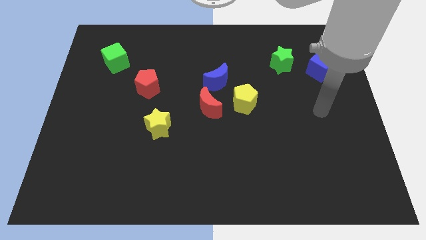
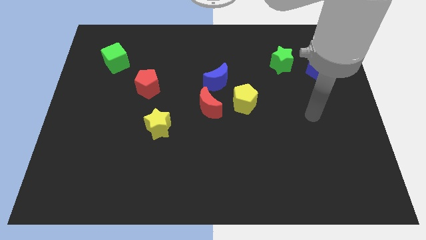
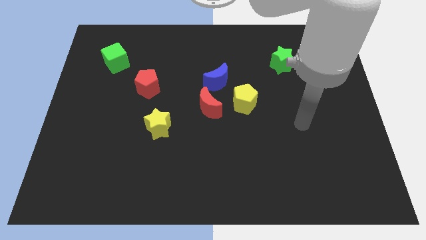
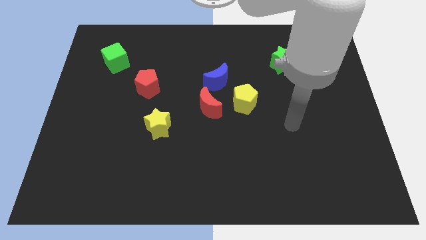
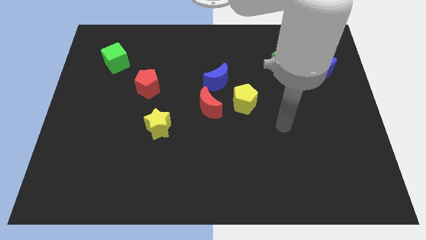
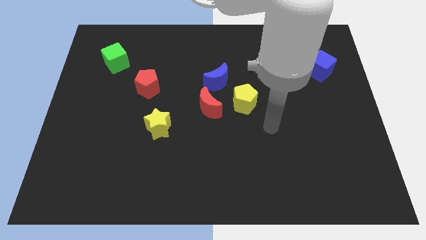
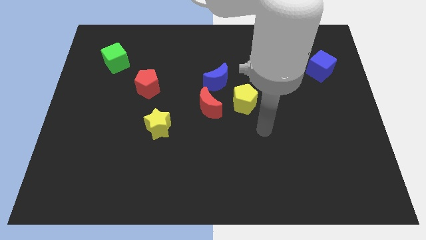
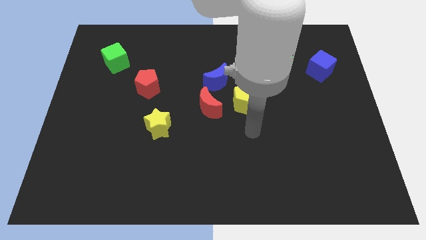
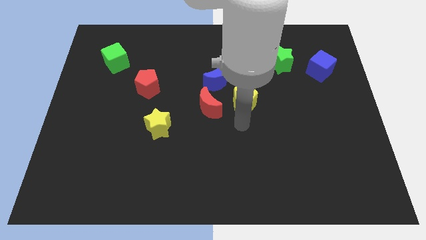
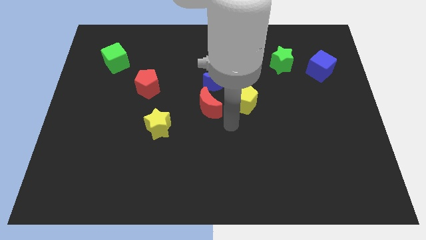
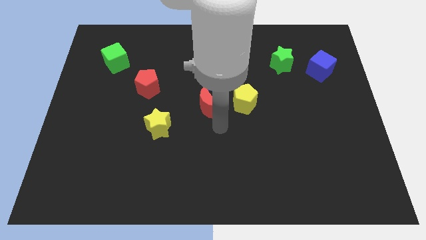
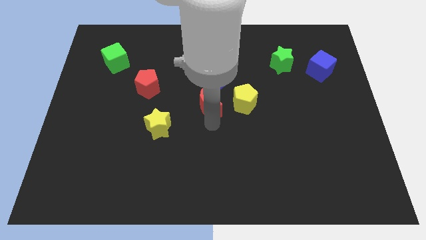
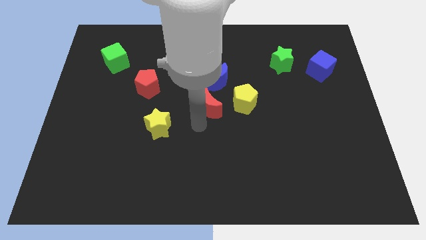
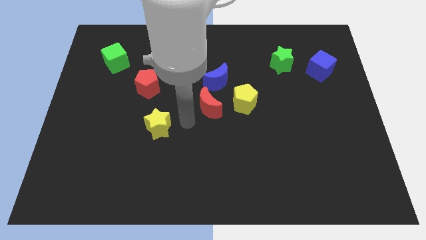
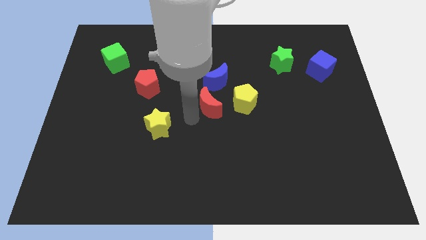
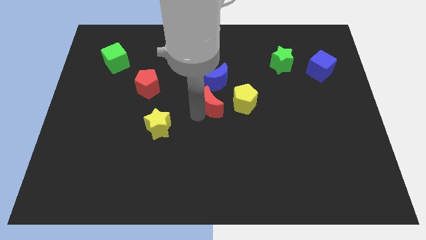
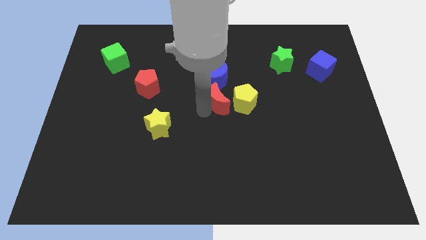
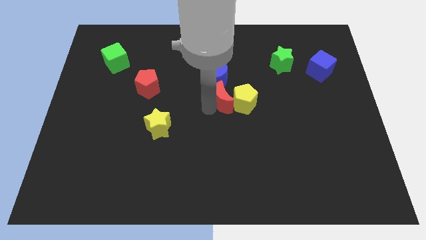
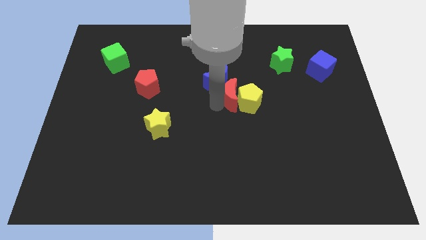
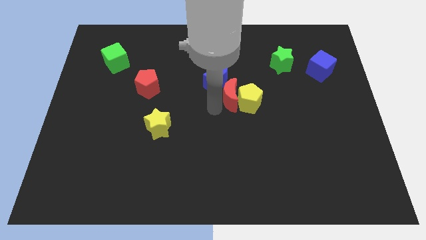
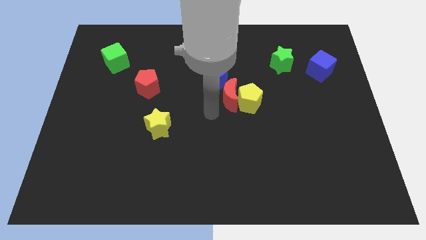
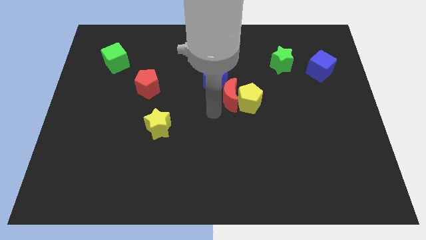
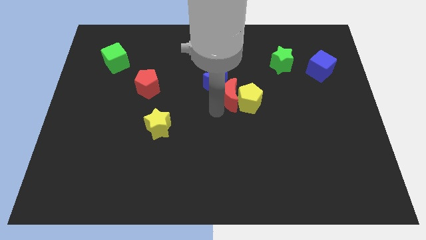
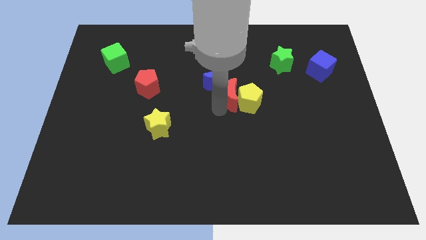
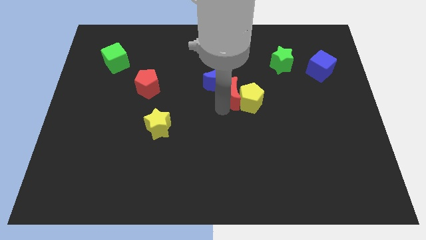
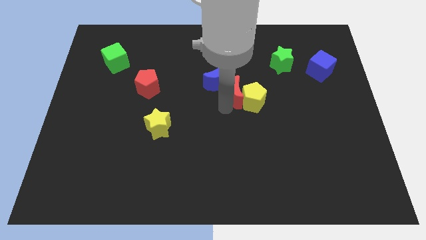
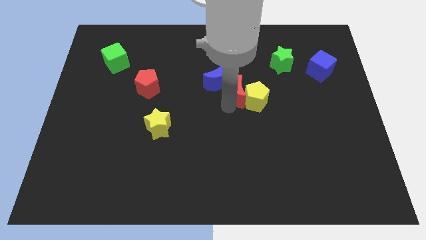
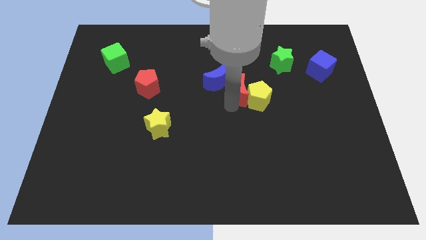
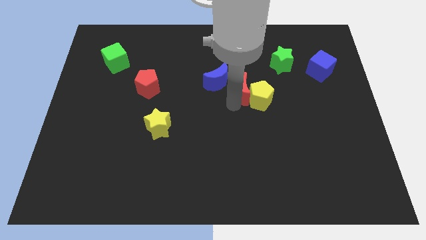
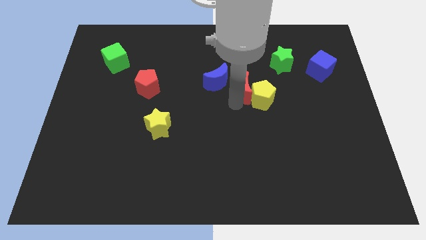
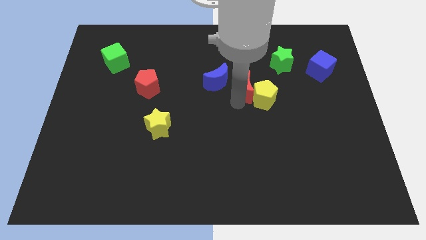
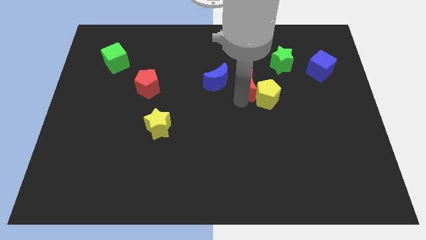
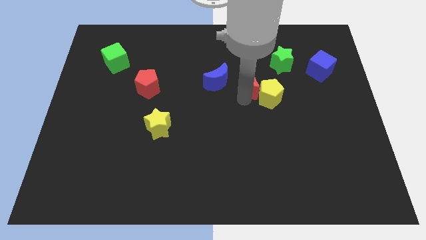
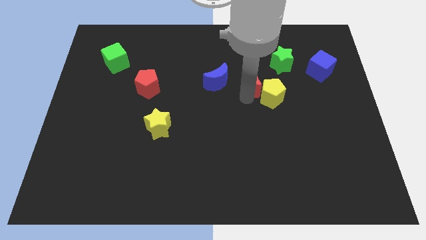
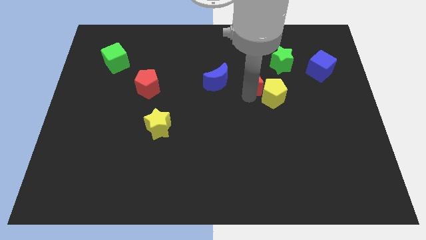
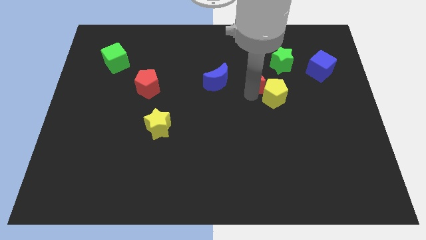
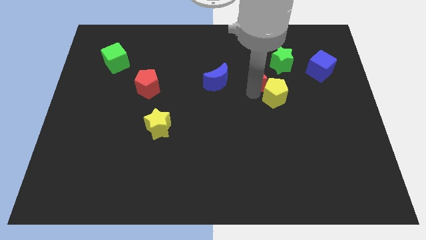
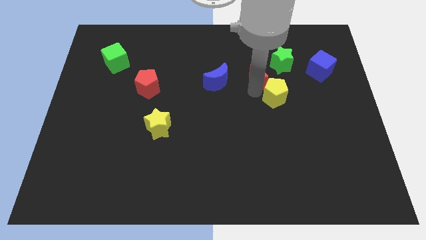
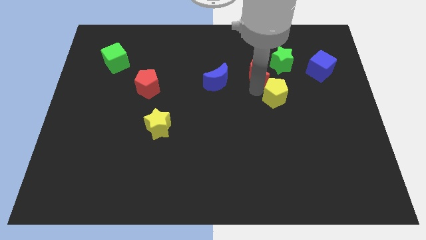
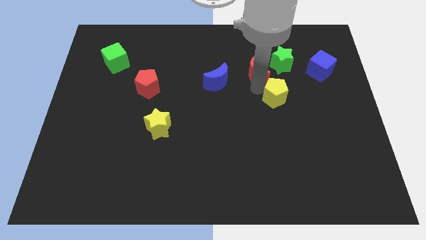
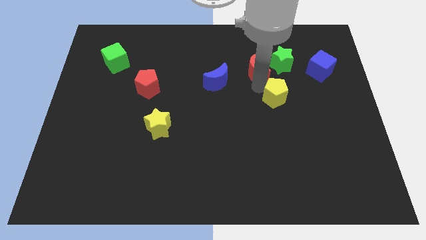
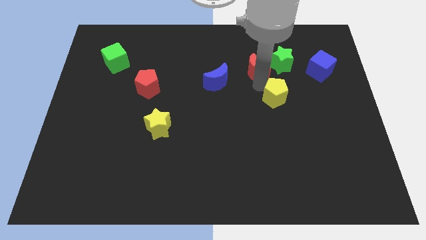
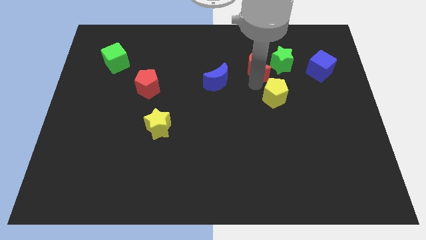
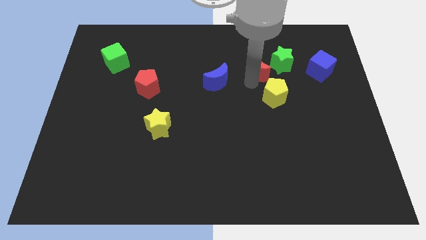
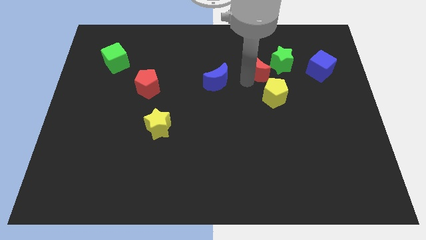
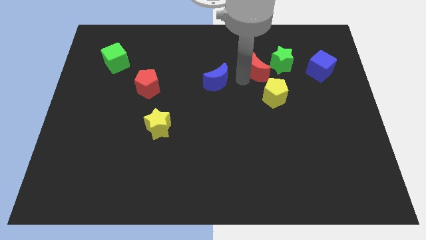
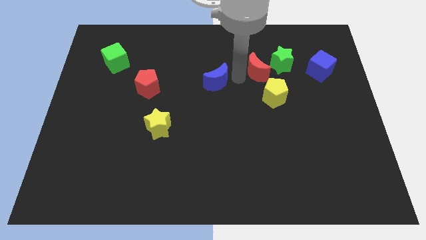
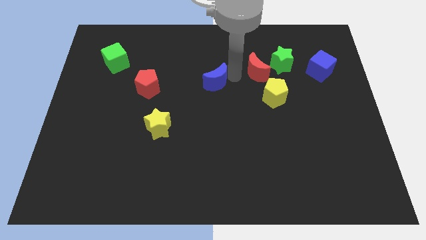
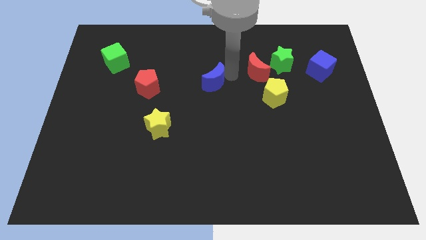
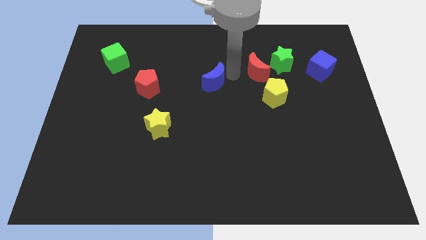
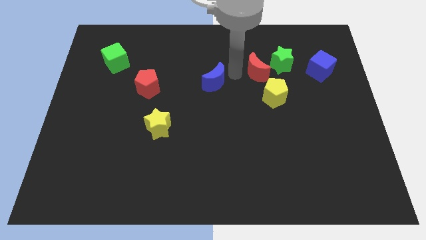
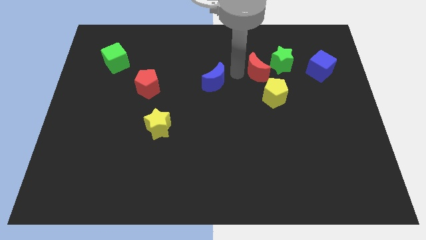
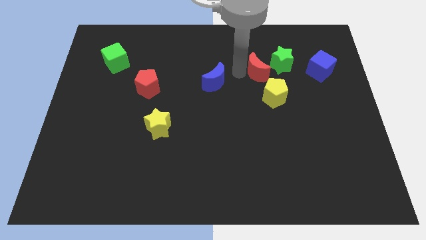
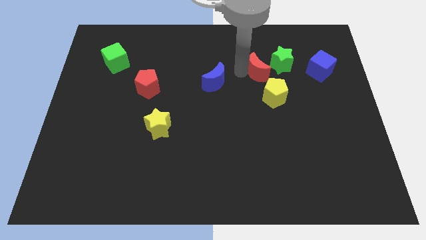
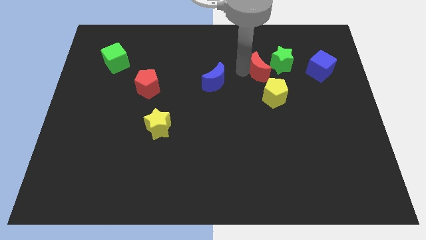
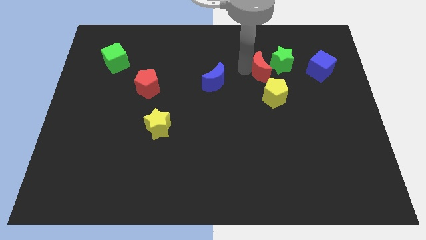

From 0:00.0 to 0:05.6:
put the red moon to the green star

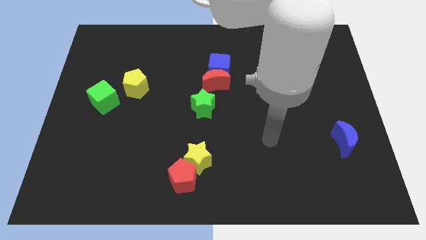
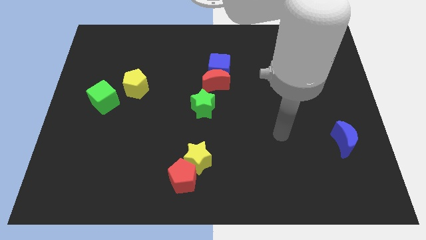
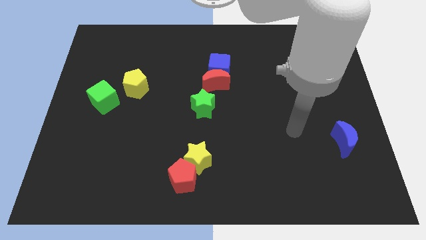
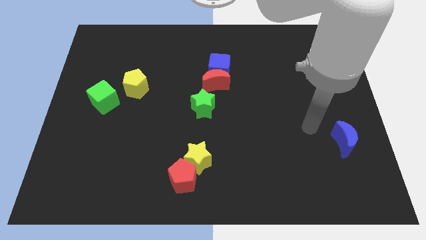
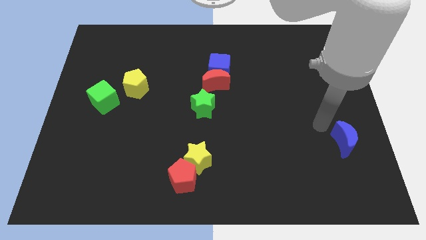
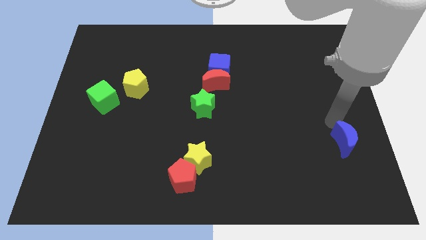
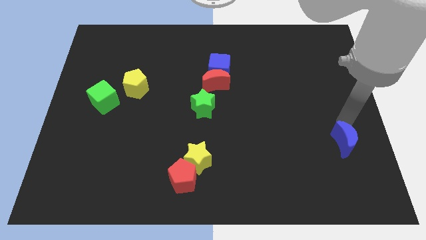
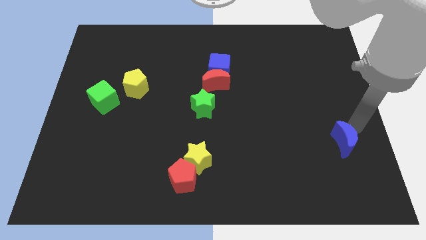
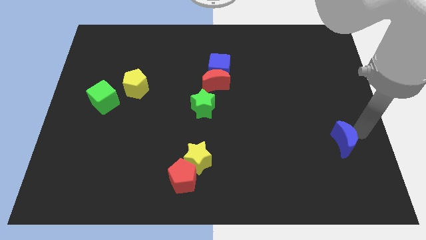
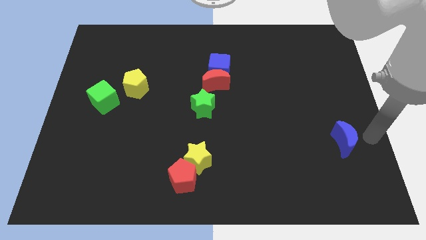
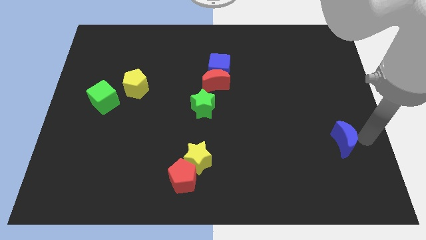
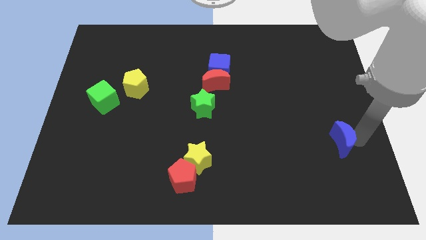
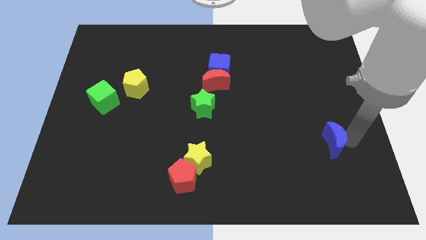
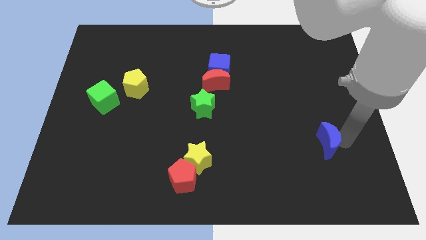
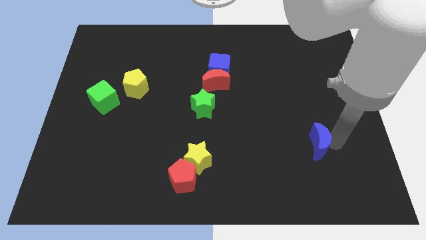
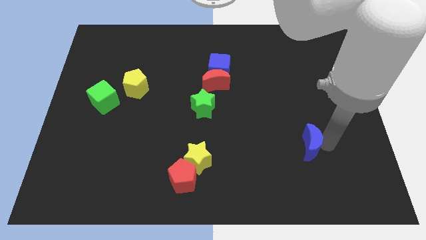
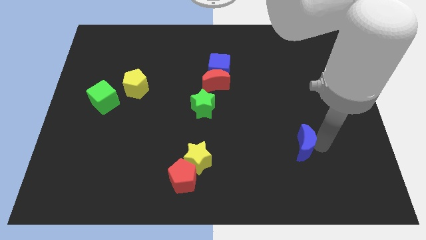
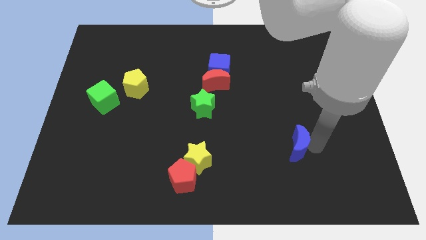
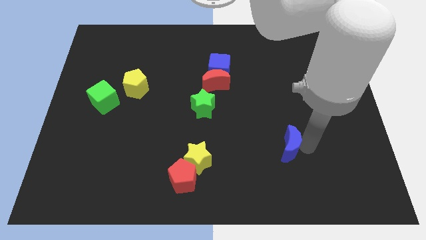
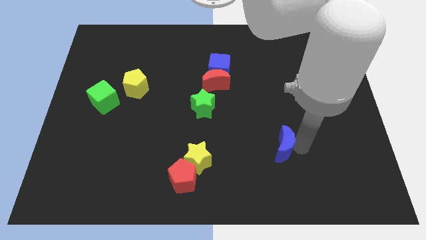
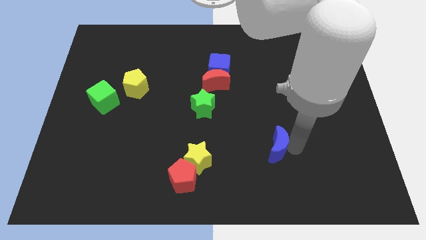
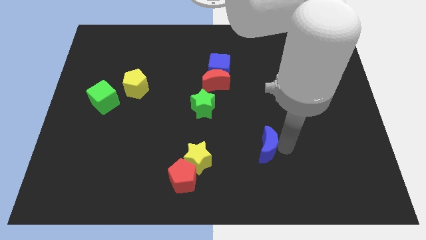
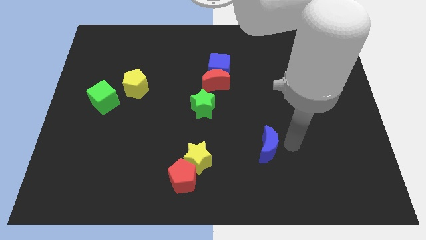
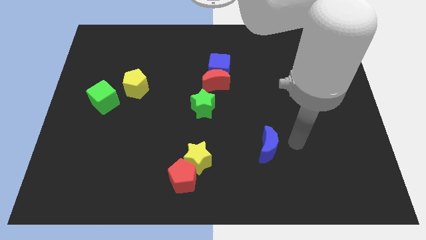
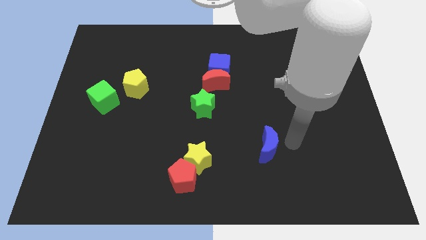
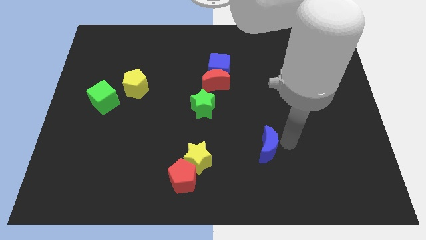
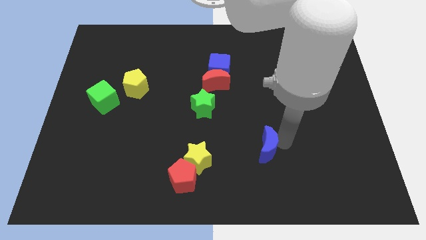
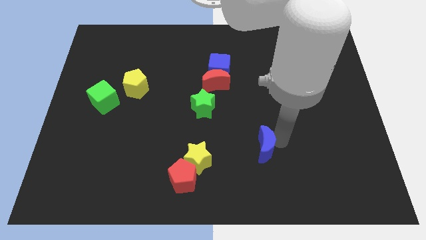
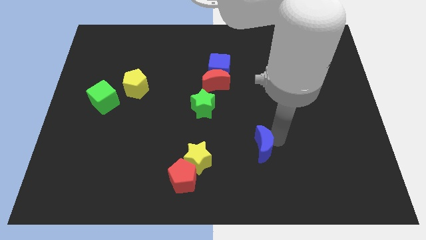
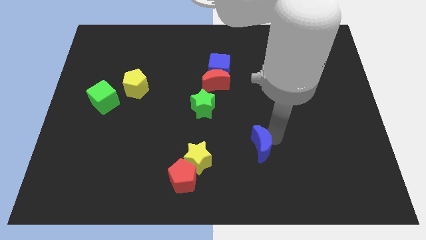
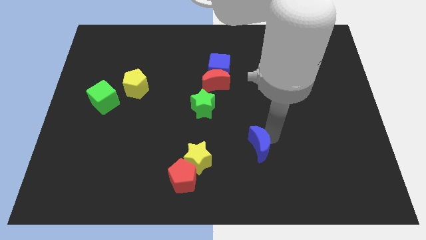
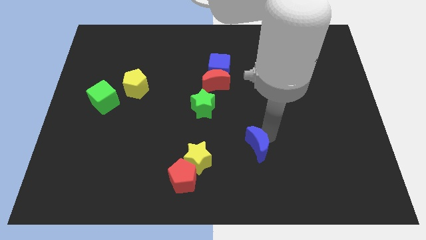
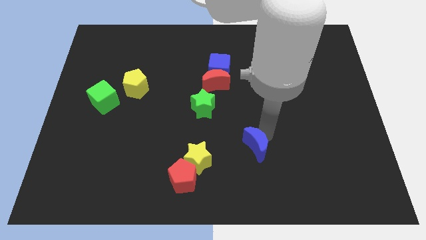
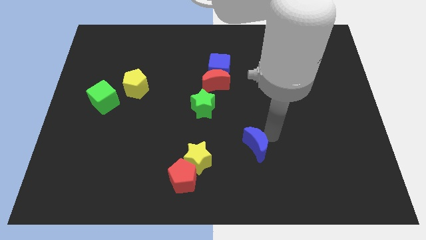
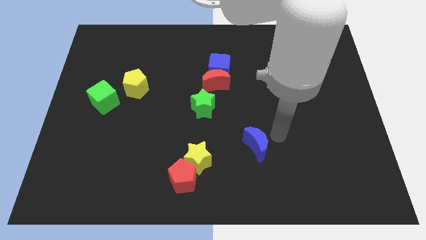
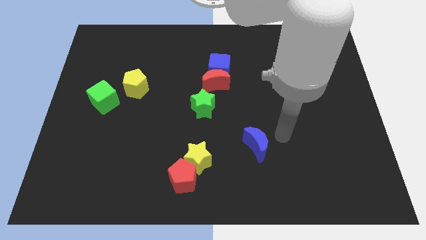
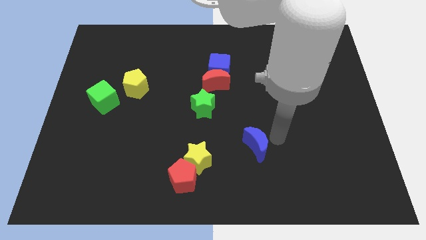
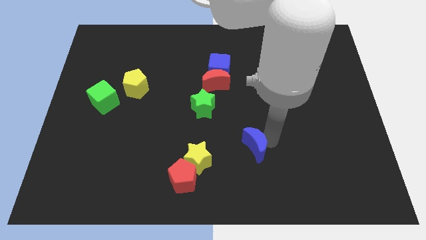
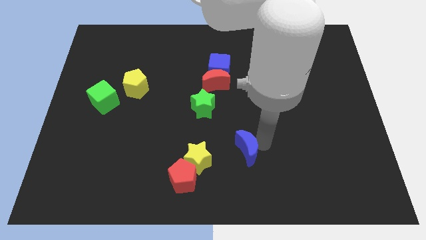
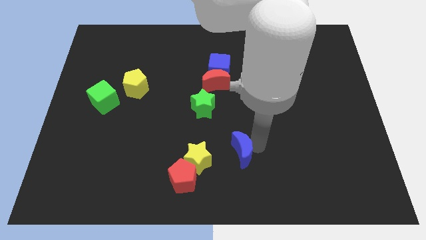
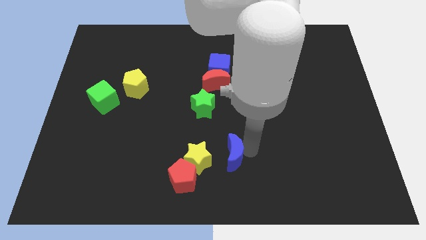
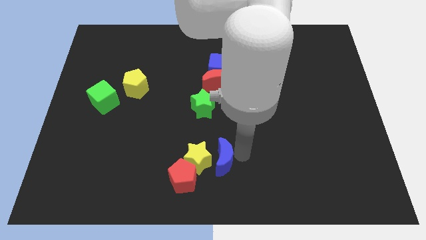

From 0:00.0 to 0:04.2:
put the blue moon next to the yellow star
